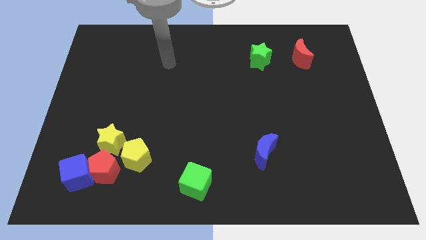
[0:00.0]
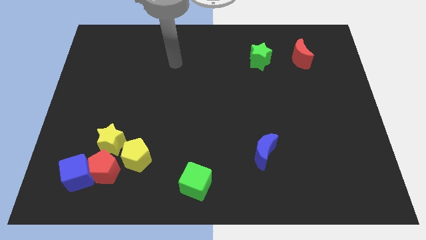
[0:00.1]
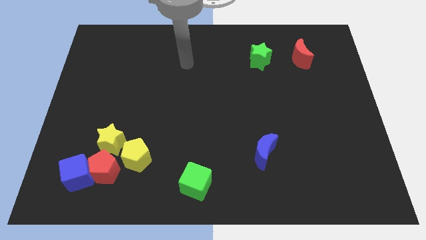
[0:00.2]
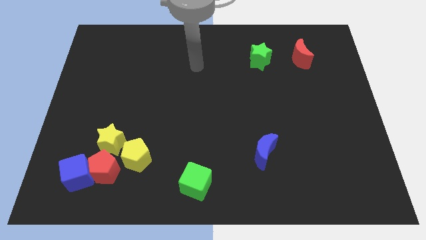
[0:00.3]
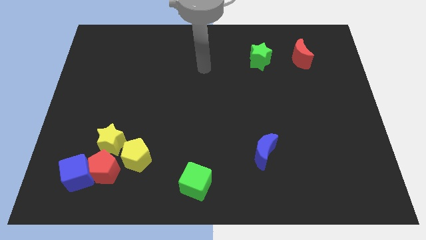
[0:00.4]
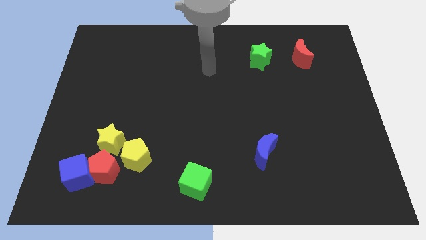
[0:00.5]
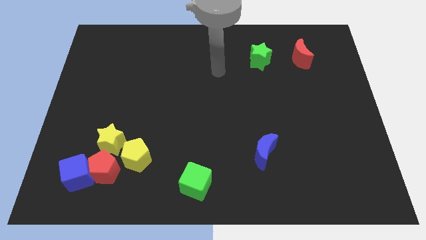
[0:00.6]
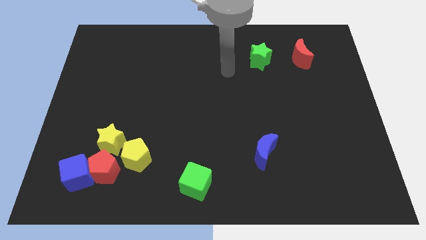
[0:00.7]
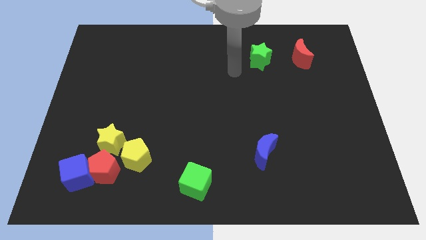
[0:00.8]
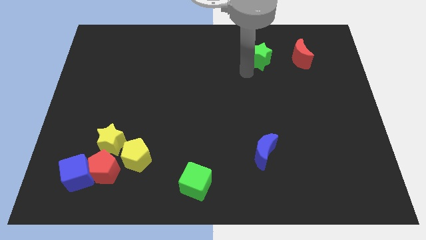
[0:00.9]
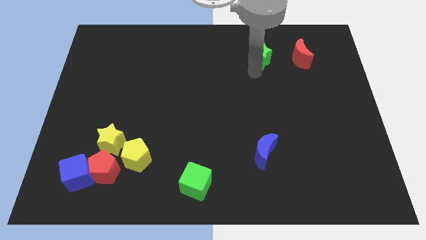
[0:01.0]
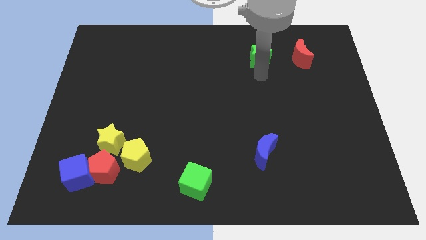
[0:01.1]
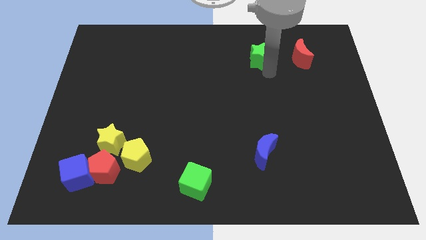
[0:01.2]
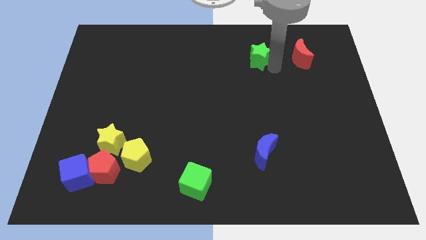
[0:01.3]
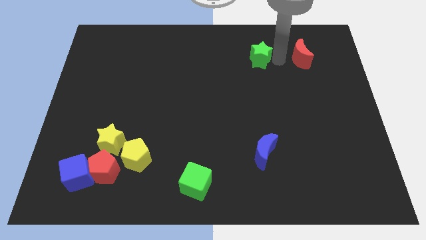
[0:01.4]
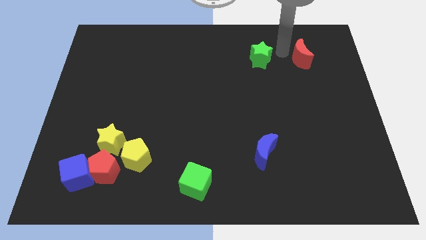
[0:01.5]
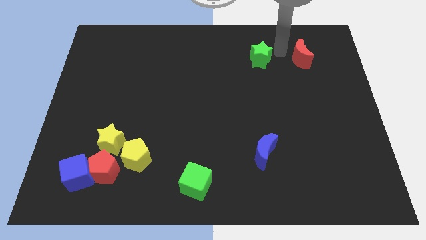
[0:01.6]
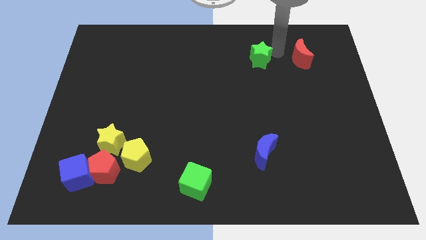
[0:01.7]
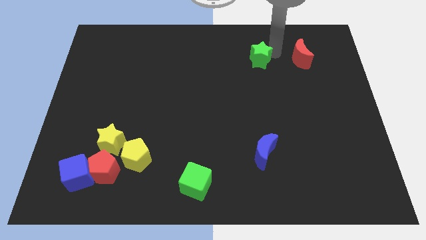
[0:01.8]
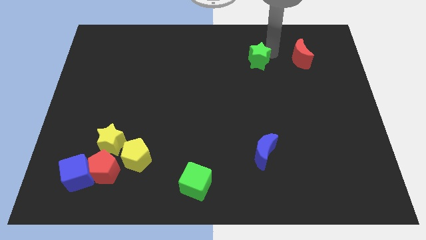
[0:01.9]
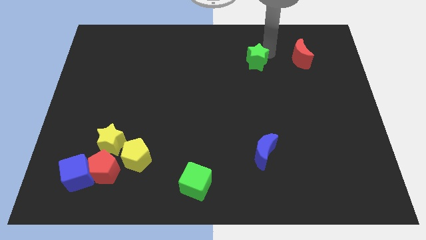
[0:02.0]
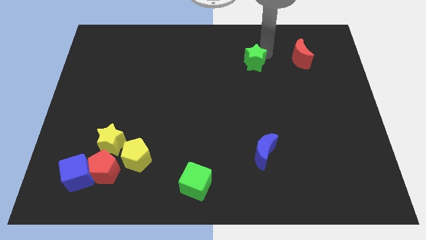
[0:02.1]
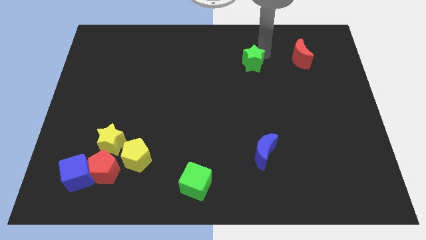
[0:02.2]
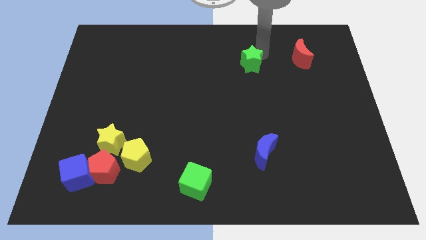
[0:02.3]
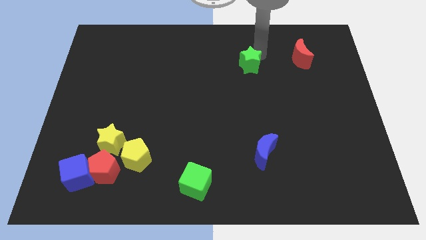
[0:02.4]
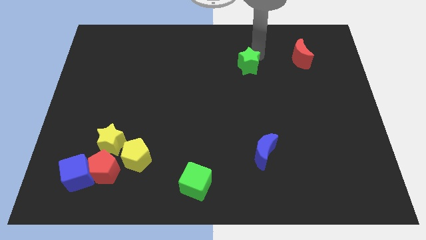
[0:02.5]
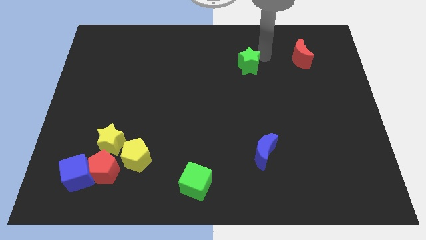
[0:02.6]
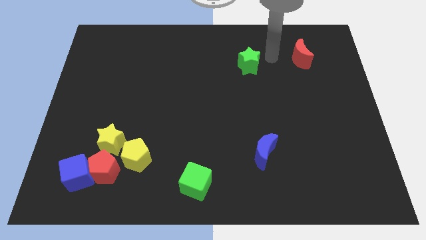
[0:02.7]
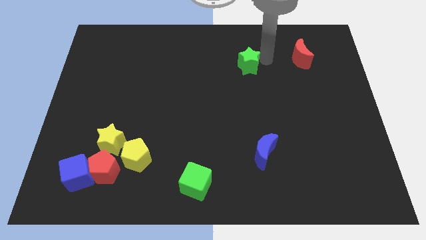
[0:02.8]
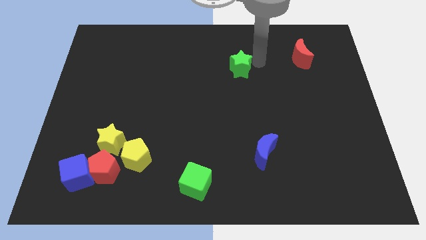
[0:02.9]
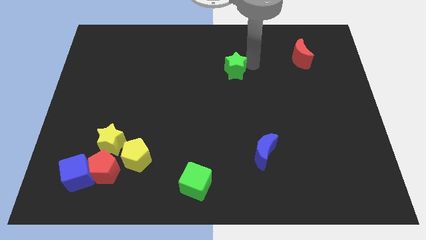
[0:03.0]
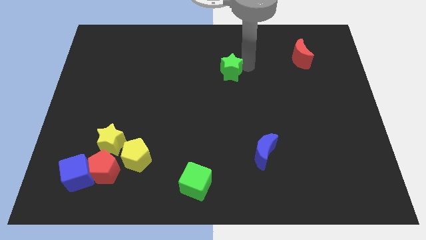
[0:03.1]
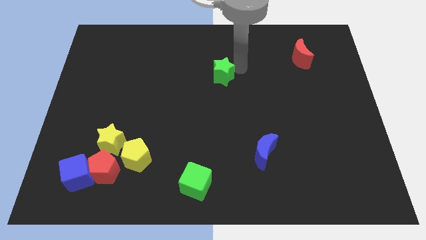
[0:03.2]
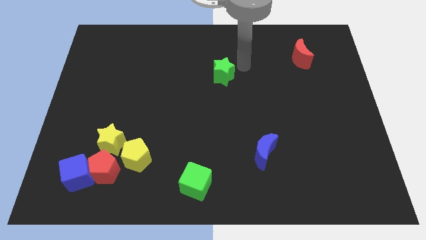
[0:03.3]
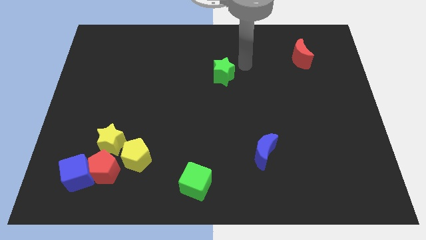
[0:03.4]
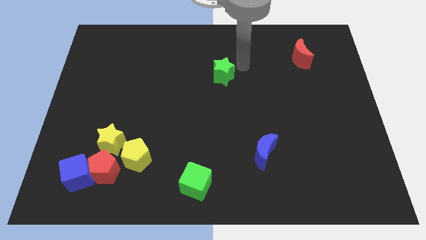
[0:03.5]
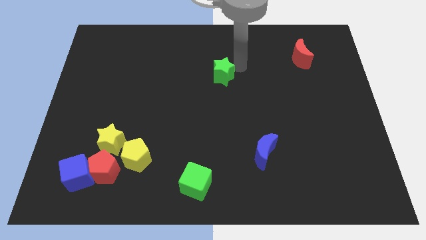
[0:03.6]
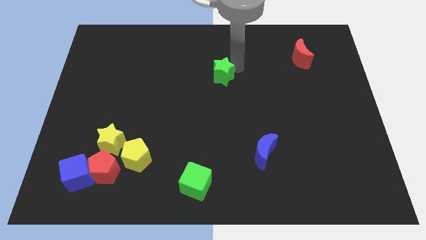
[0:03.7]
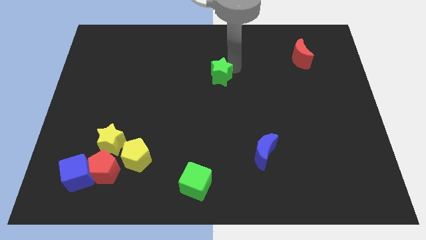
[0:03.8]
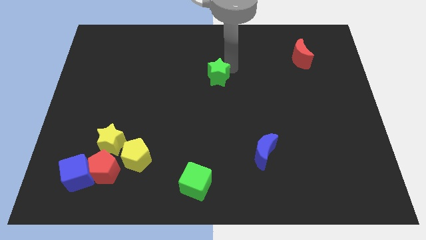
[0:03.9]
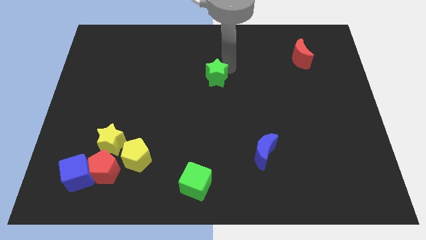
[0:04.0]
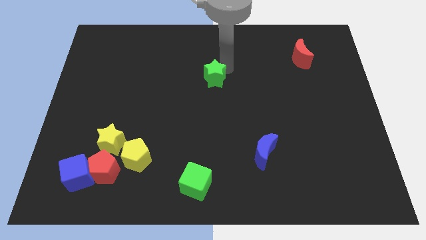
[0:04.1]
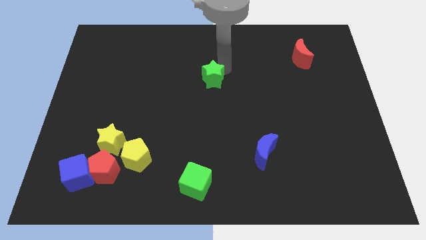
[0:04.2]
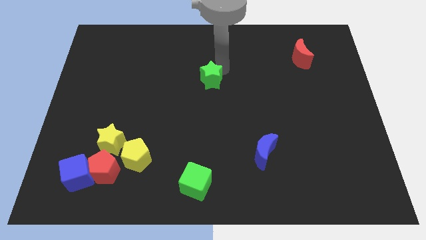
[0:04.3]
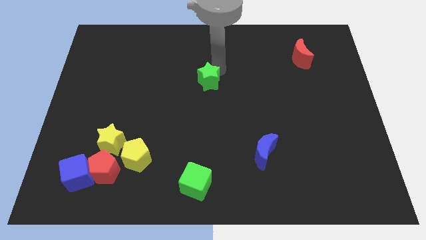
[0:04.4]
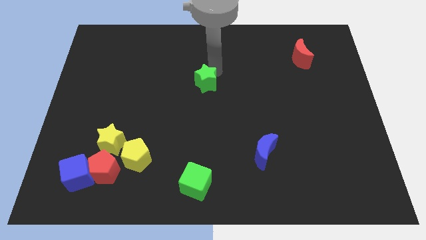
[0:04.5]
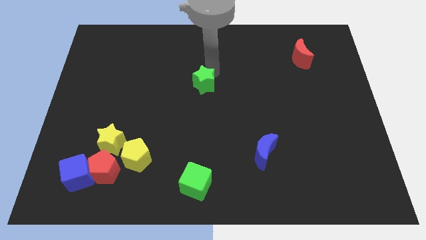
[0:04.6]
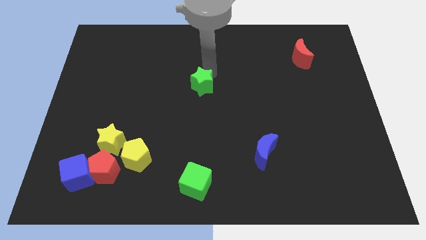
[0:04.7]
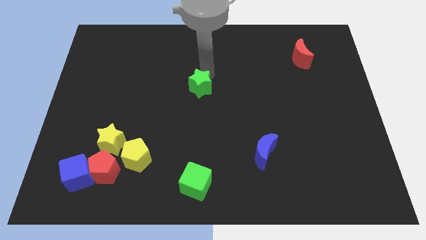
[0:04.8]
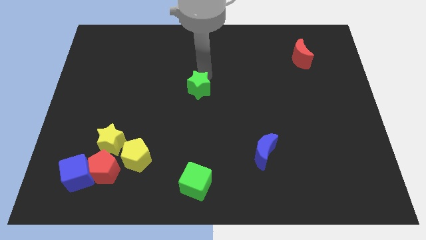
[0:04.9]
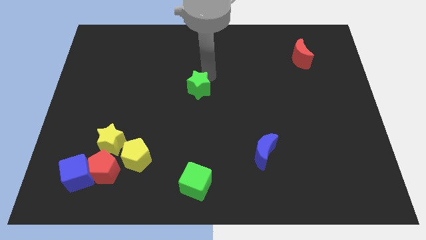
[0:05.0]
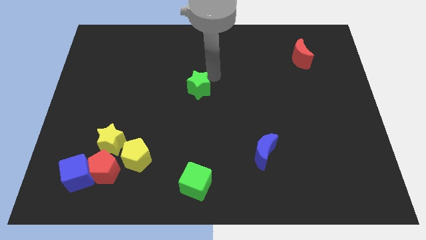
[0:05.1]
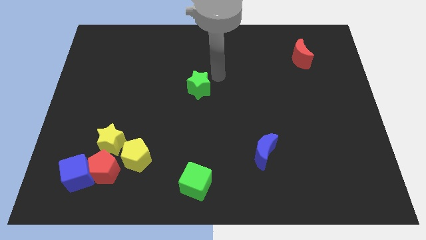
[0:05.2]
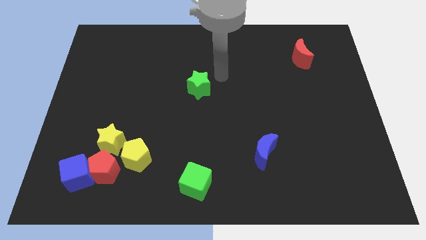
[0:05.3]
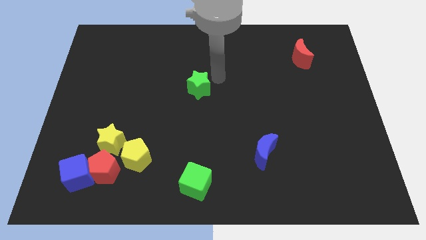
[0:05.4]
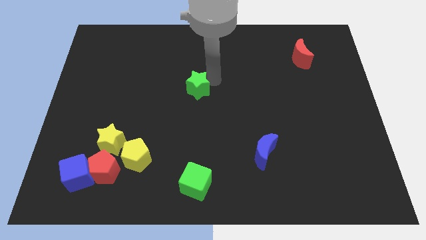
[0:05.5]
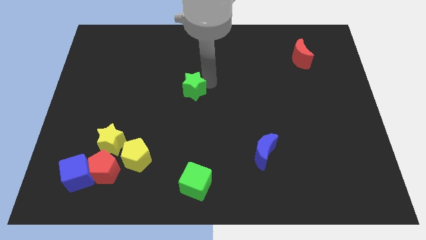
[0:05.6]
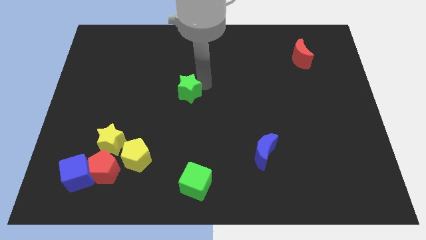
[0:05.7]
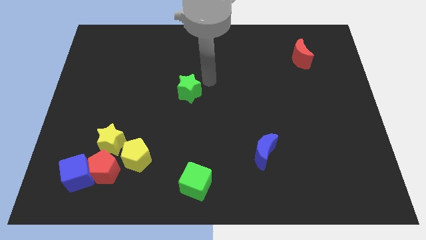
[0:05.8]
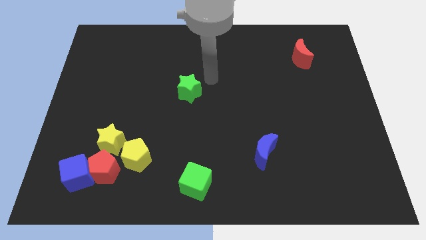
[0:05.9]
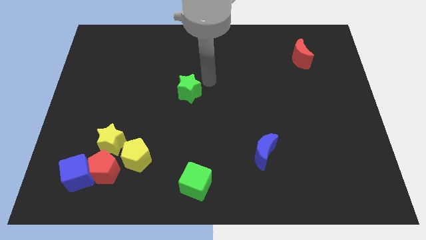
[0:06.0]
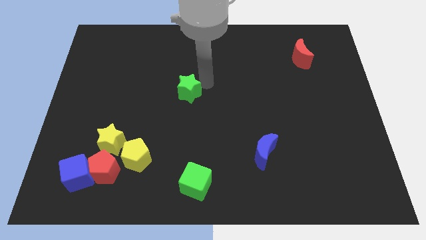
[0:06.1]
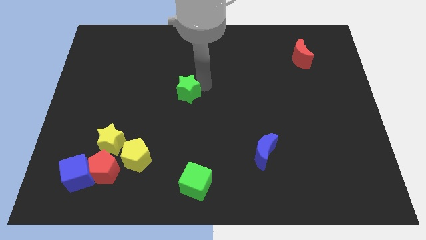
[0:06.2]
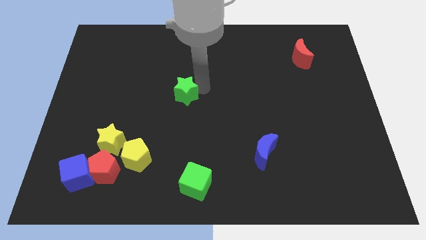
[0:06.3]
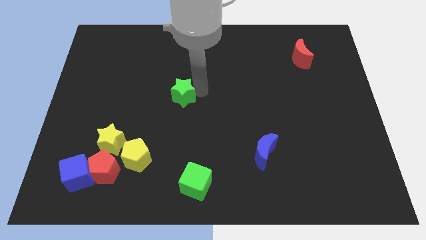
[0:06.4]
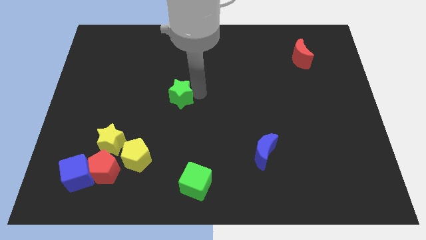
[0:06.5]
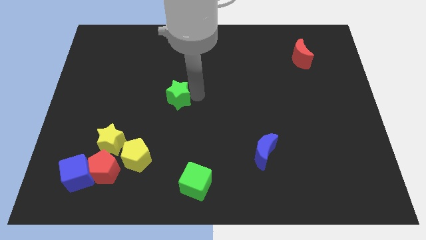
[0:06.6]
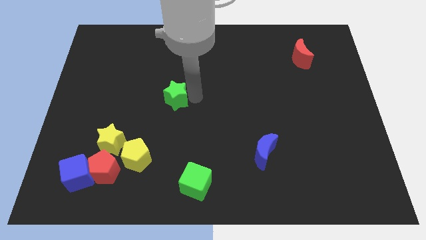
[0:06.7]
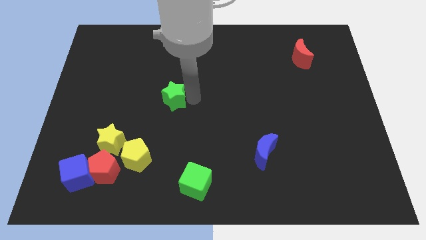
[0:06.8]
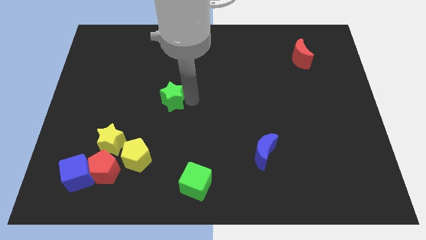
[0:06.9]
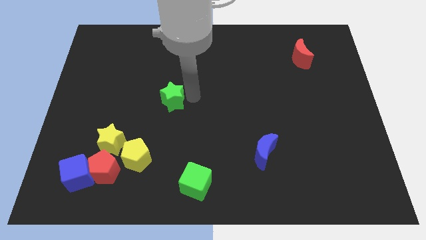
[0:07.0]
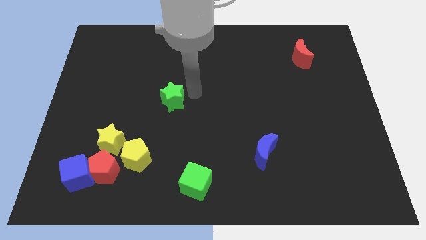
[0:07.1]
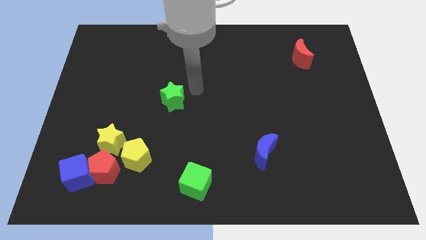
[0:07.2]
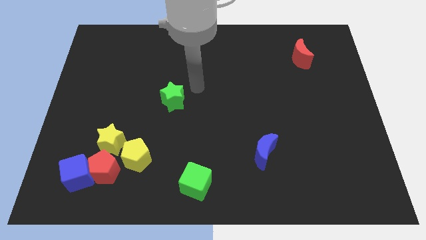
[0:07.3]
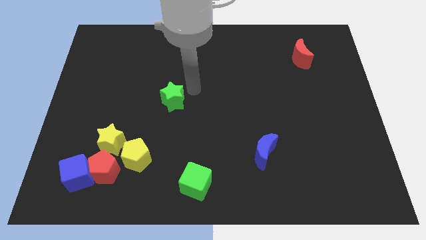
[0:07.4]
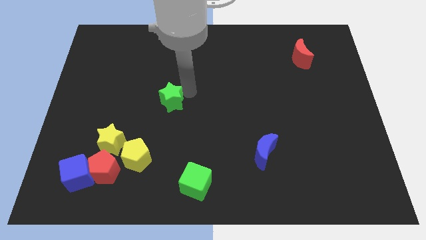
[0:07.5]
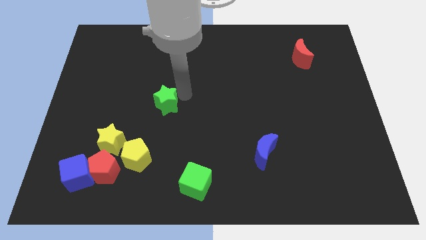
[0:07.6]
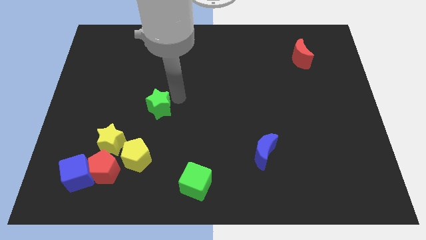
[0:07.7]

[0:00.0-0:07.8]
push the green star above the yellow pentagon

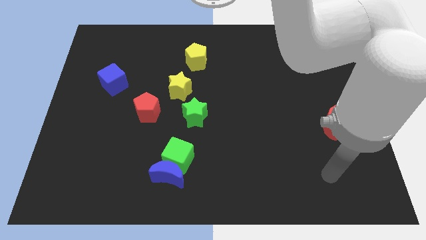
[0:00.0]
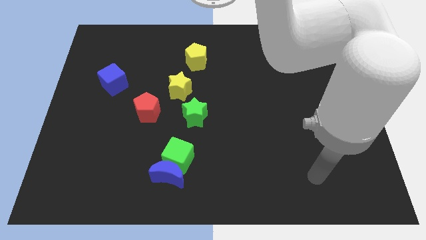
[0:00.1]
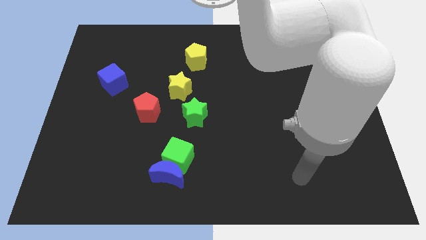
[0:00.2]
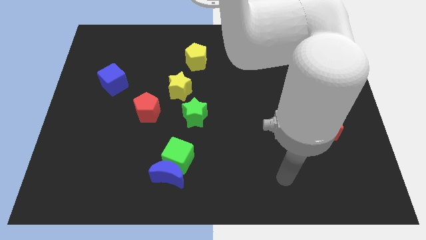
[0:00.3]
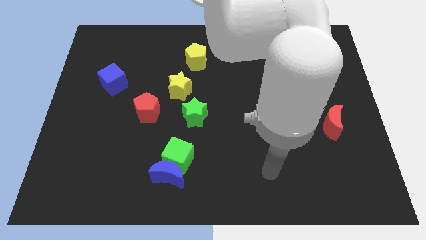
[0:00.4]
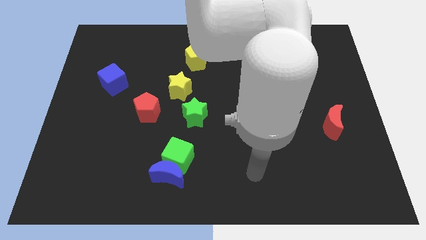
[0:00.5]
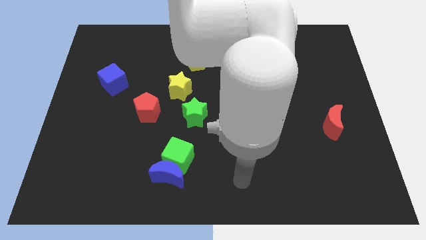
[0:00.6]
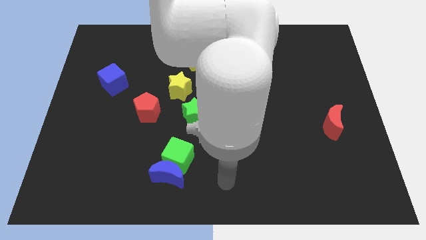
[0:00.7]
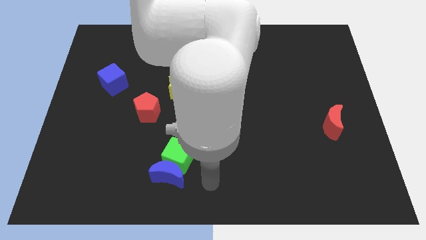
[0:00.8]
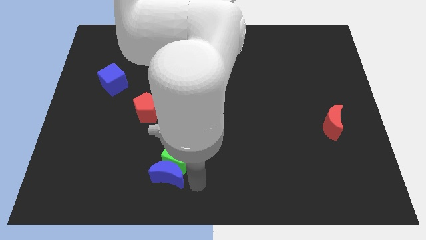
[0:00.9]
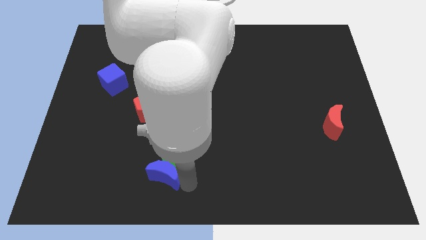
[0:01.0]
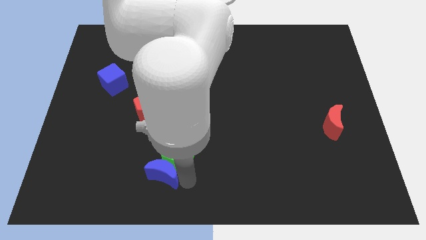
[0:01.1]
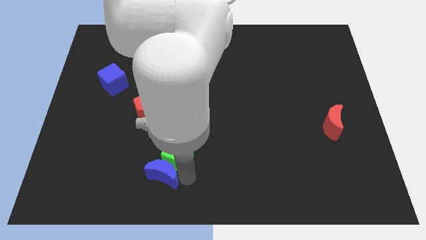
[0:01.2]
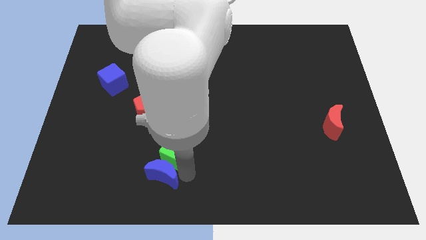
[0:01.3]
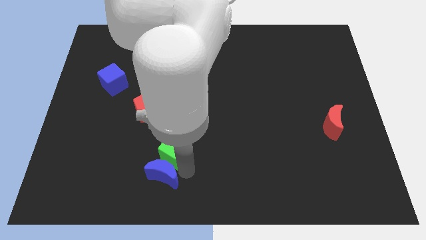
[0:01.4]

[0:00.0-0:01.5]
push the green cube diagonally down and to the left of the green star
